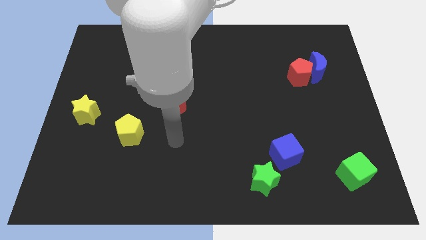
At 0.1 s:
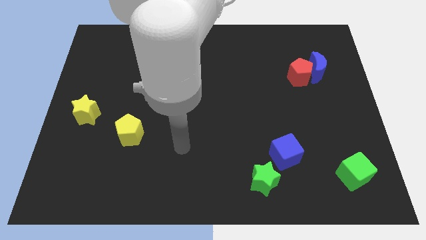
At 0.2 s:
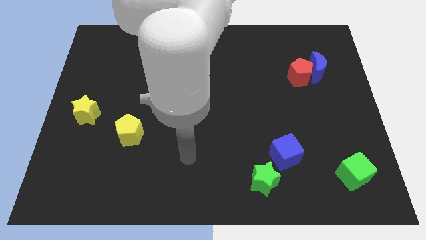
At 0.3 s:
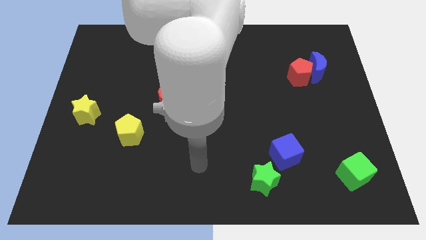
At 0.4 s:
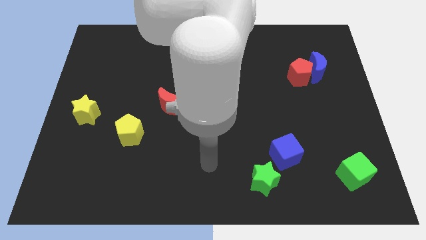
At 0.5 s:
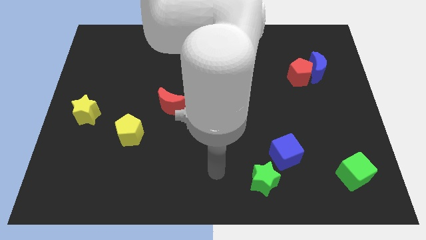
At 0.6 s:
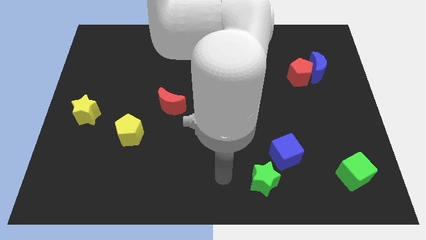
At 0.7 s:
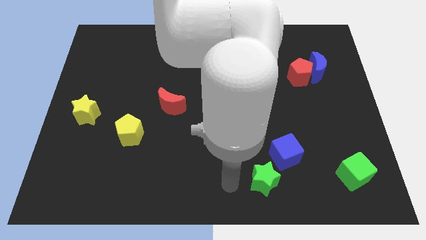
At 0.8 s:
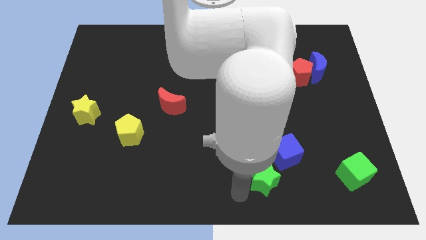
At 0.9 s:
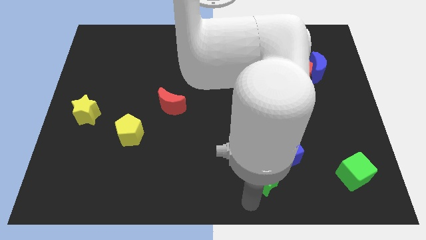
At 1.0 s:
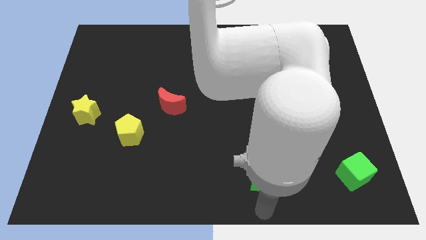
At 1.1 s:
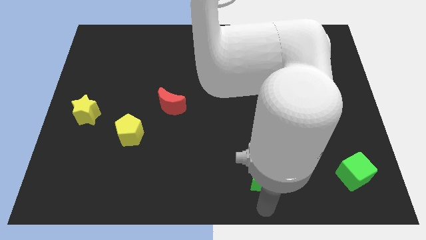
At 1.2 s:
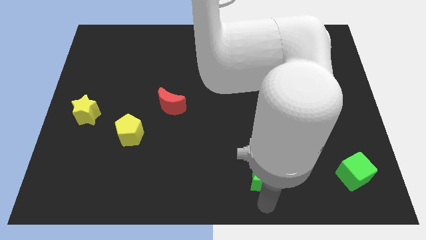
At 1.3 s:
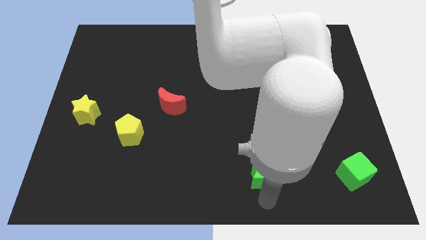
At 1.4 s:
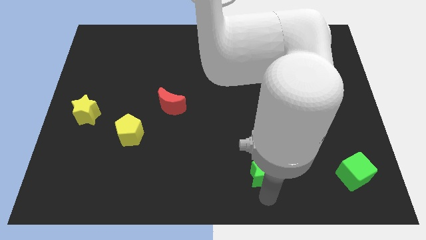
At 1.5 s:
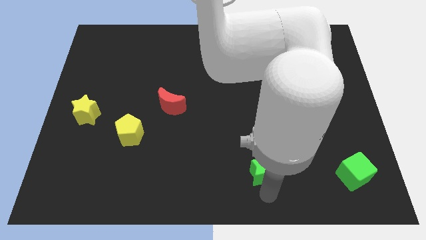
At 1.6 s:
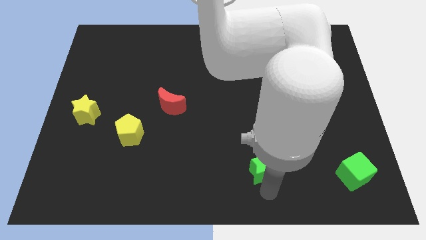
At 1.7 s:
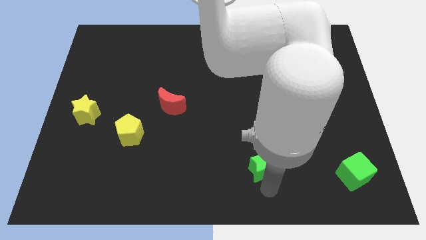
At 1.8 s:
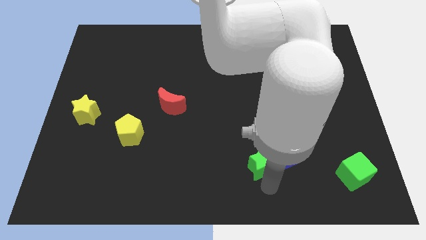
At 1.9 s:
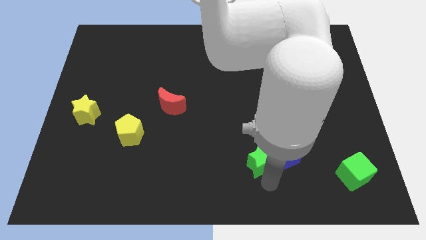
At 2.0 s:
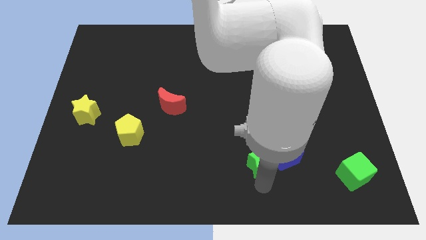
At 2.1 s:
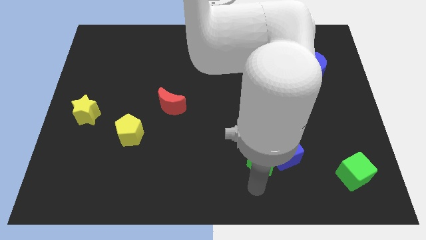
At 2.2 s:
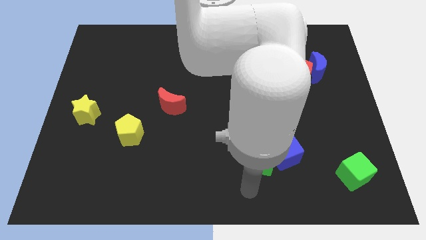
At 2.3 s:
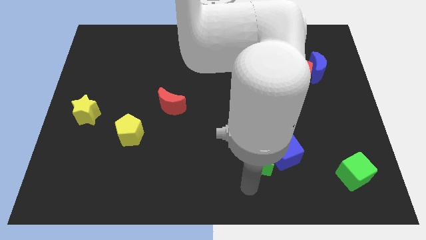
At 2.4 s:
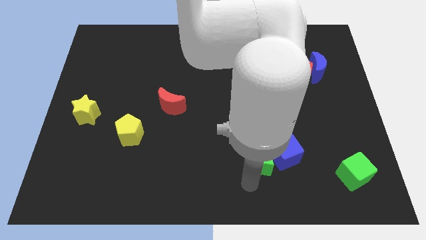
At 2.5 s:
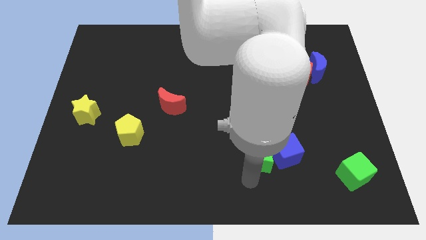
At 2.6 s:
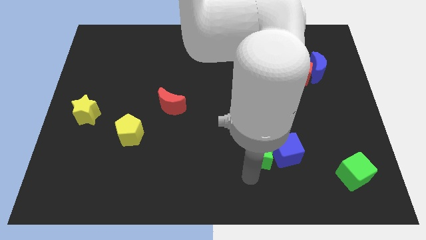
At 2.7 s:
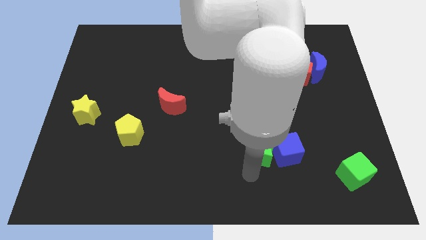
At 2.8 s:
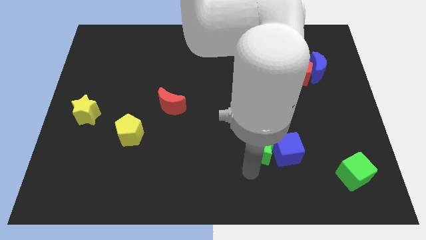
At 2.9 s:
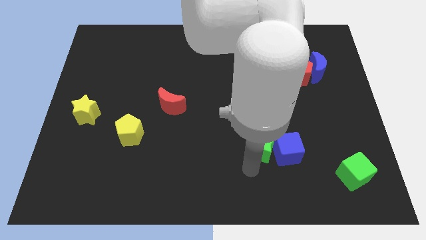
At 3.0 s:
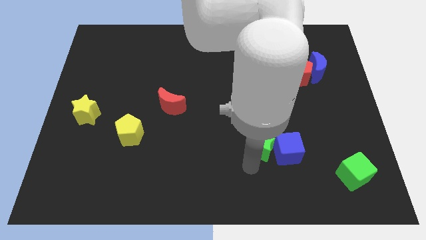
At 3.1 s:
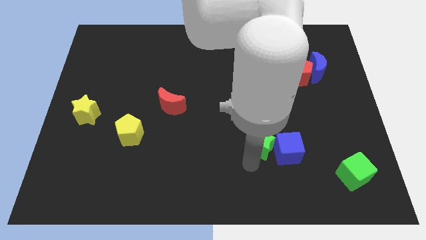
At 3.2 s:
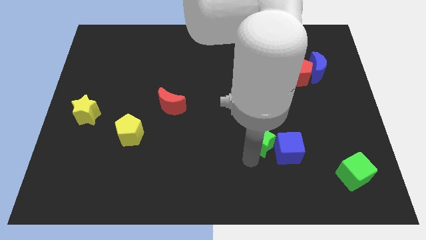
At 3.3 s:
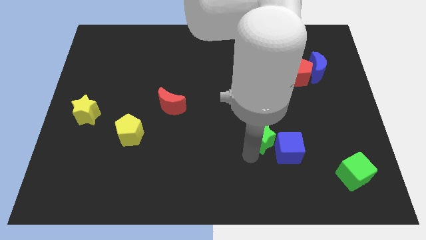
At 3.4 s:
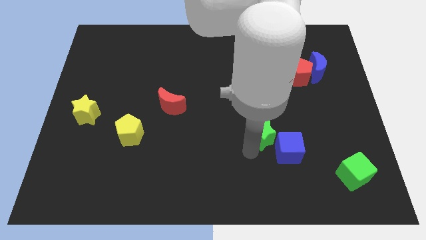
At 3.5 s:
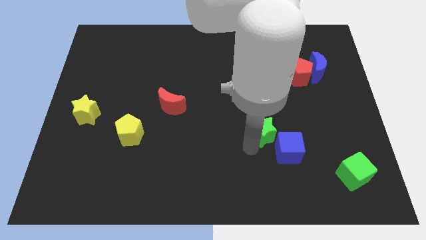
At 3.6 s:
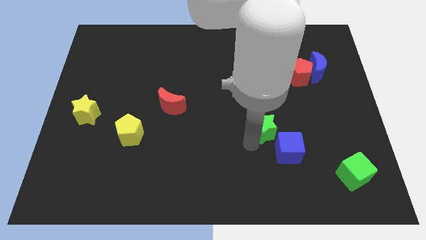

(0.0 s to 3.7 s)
slightly push the green star upwards and right diagonally

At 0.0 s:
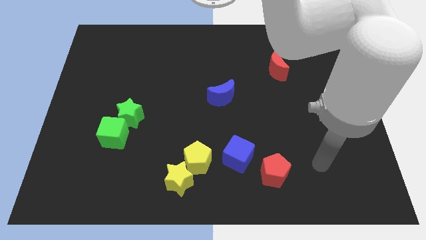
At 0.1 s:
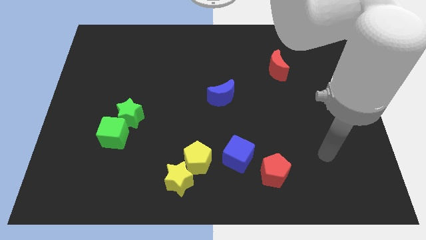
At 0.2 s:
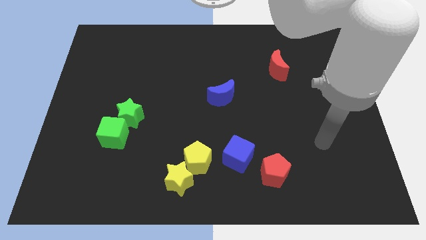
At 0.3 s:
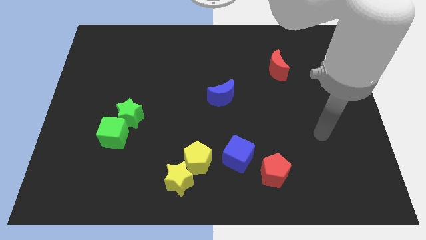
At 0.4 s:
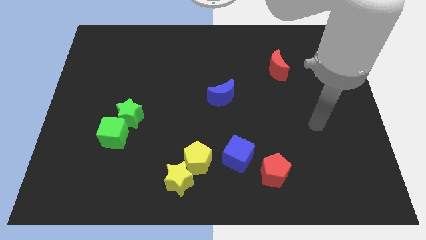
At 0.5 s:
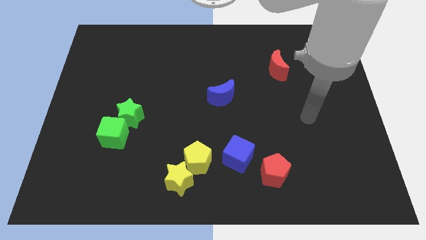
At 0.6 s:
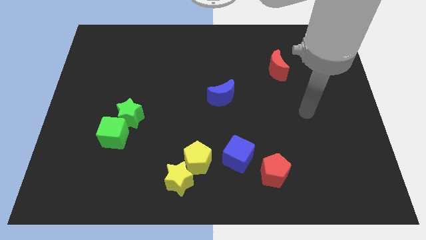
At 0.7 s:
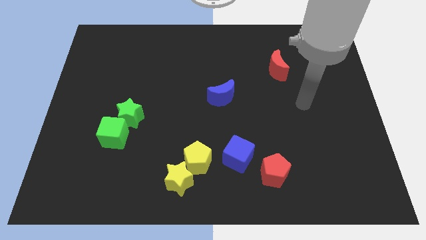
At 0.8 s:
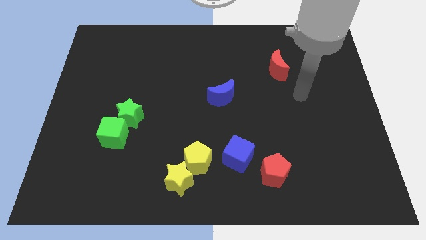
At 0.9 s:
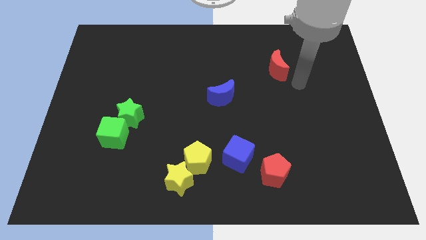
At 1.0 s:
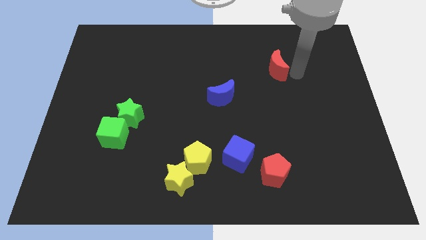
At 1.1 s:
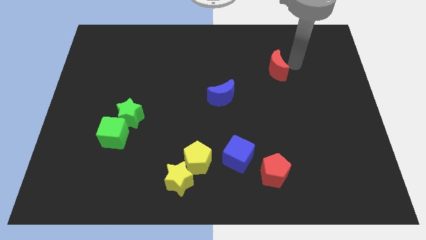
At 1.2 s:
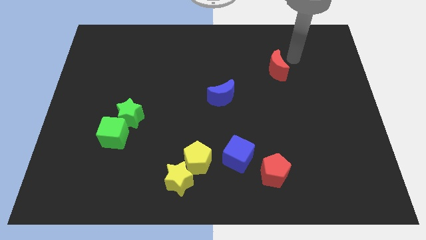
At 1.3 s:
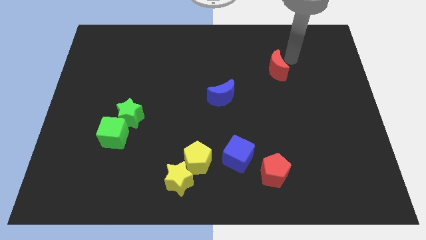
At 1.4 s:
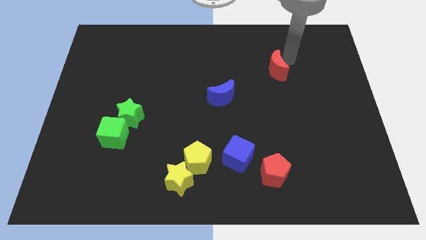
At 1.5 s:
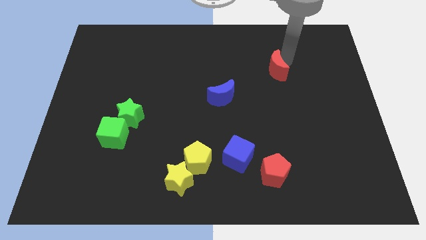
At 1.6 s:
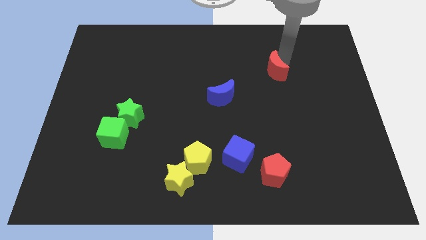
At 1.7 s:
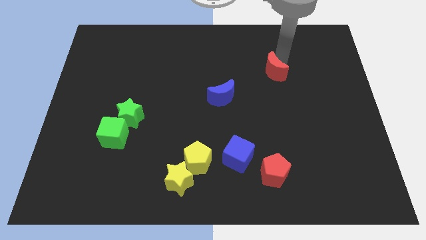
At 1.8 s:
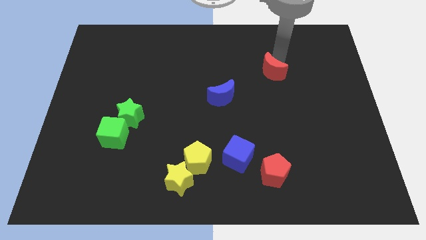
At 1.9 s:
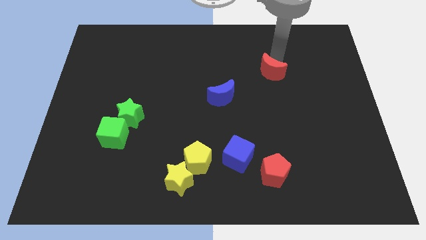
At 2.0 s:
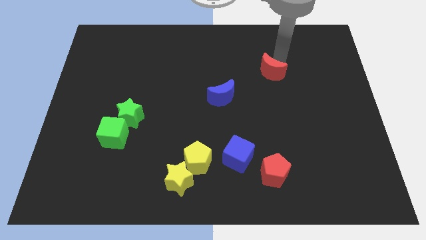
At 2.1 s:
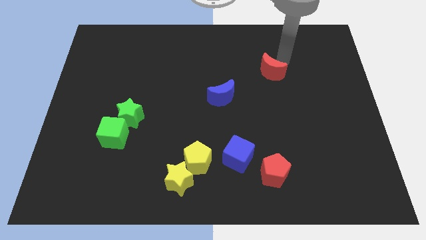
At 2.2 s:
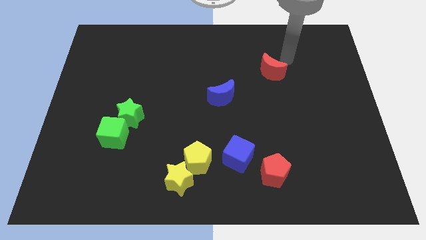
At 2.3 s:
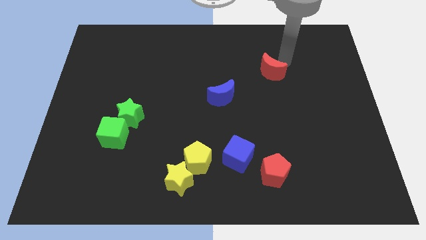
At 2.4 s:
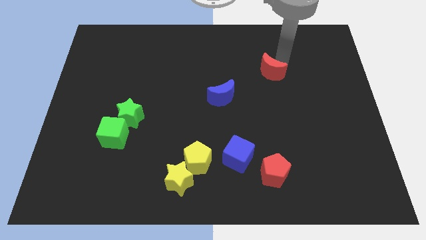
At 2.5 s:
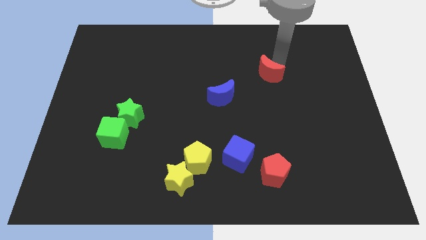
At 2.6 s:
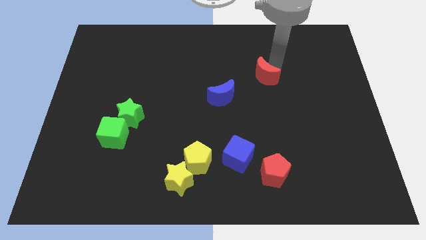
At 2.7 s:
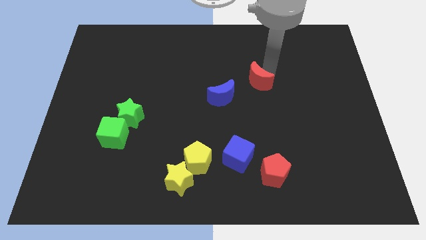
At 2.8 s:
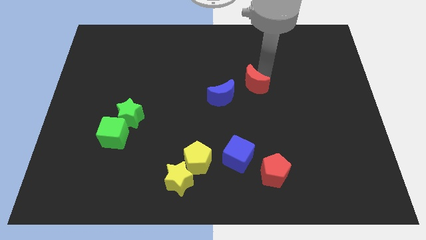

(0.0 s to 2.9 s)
slightly push the red moon down and then left

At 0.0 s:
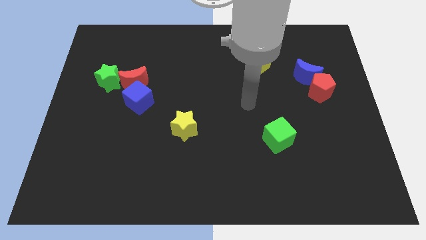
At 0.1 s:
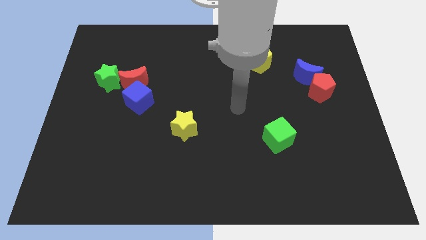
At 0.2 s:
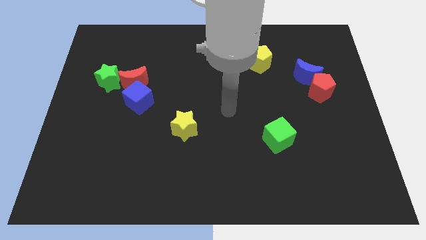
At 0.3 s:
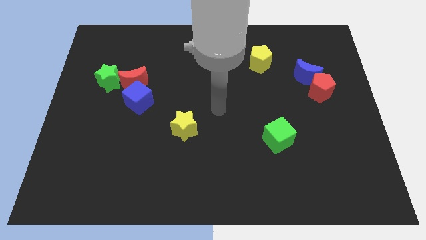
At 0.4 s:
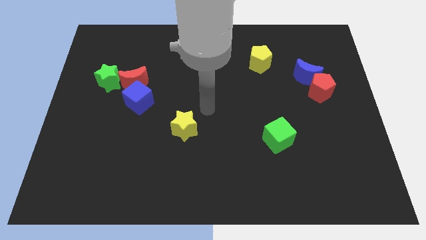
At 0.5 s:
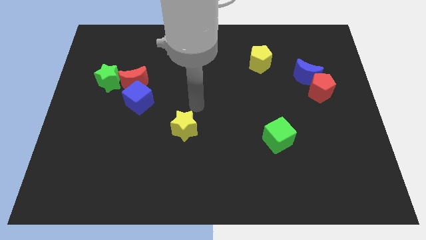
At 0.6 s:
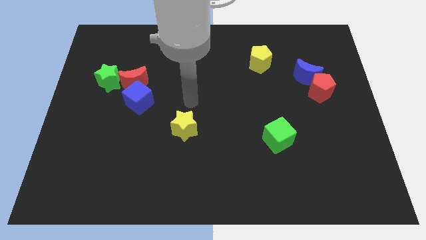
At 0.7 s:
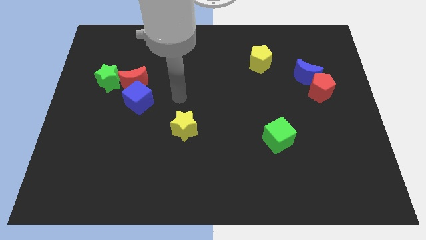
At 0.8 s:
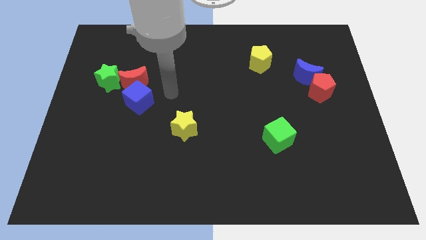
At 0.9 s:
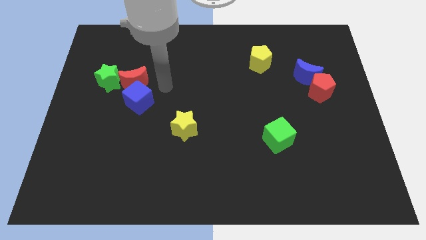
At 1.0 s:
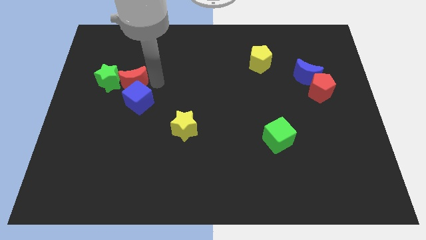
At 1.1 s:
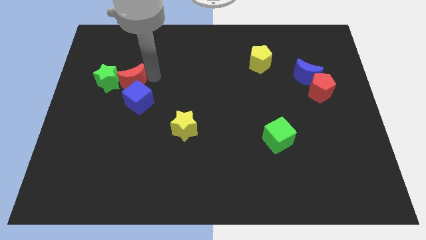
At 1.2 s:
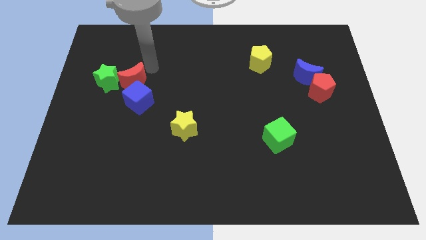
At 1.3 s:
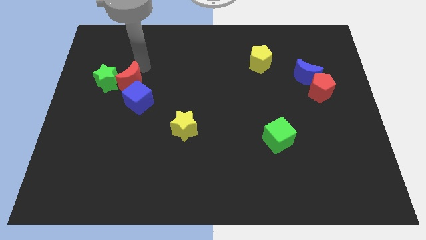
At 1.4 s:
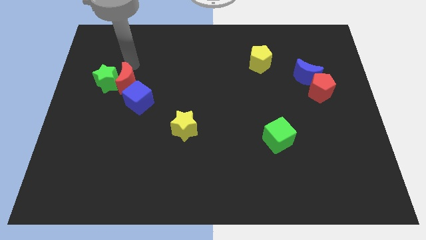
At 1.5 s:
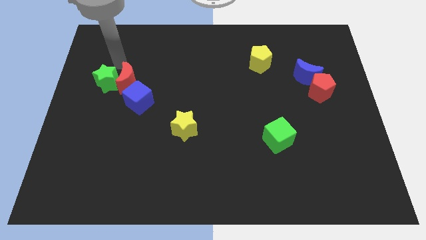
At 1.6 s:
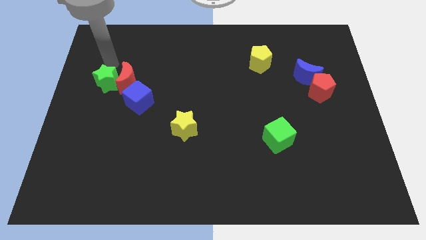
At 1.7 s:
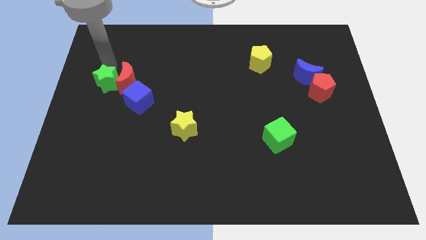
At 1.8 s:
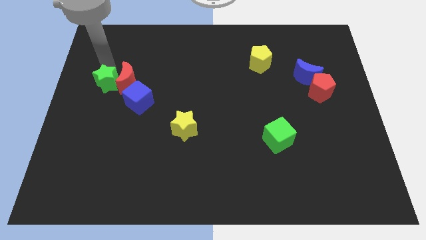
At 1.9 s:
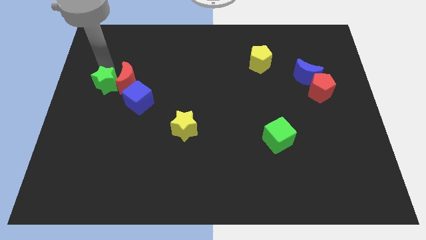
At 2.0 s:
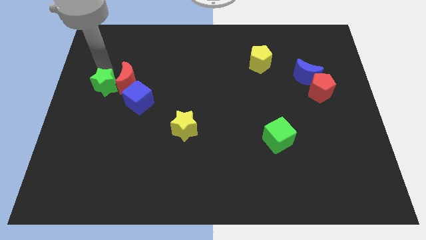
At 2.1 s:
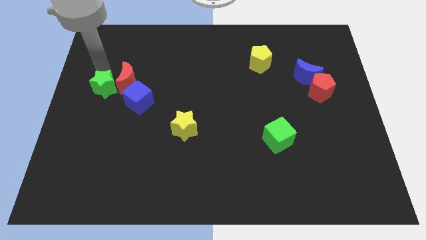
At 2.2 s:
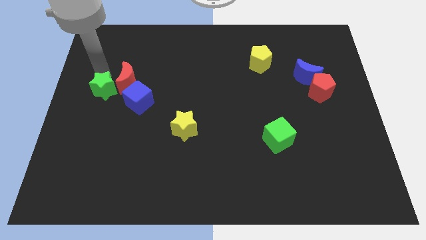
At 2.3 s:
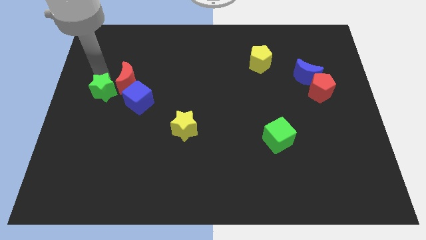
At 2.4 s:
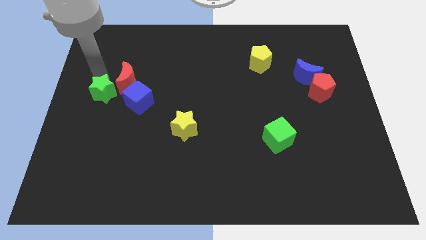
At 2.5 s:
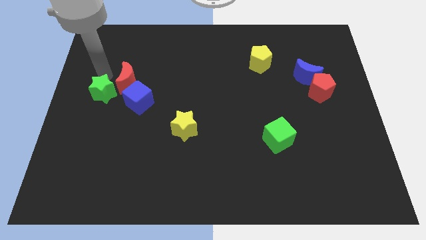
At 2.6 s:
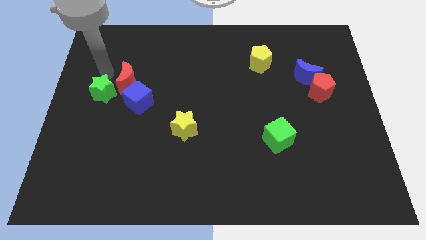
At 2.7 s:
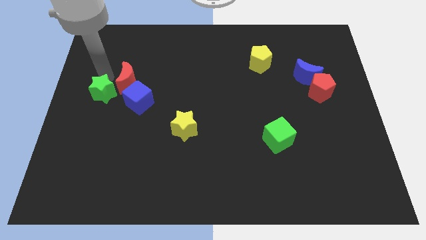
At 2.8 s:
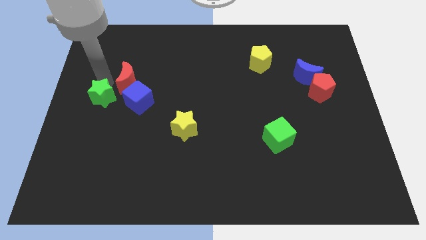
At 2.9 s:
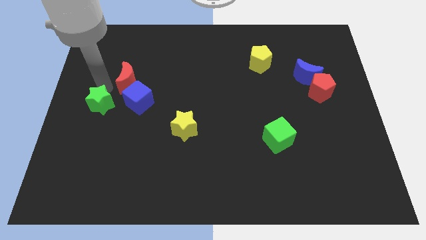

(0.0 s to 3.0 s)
push the green star down a little bit
